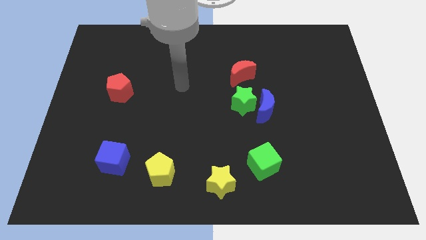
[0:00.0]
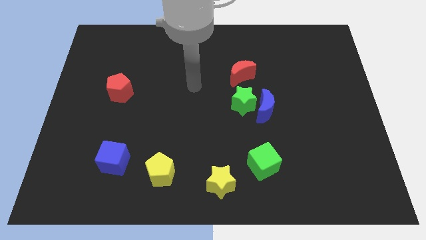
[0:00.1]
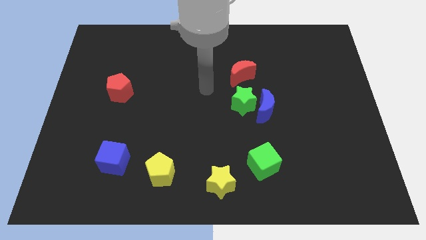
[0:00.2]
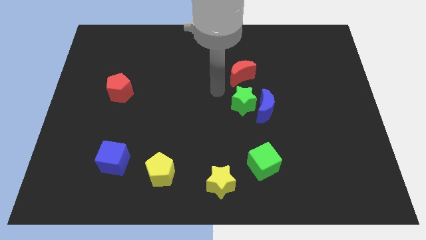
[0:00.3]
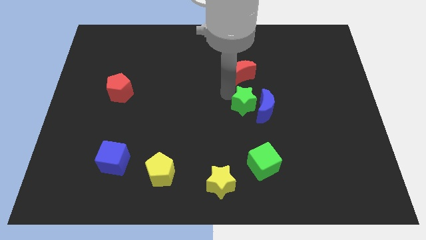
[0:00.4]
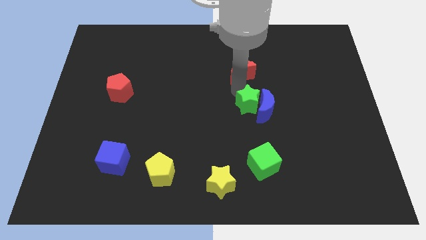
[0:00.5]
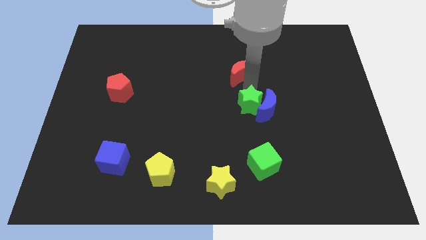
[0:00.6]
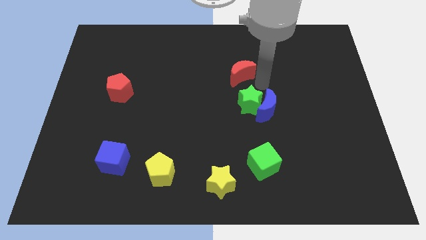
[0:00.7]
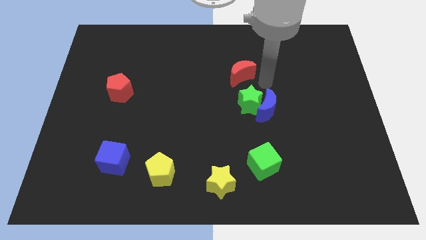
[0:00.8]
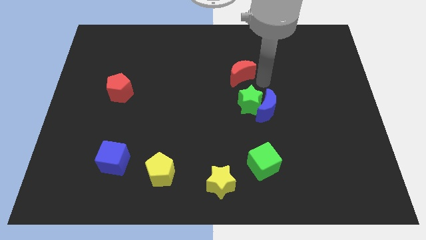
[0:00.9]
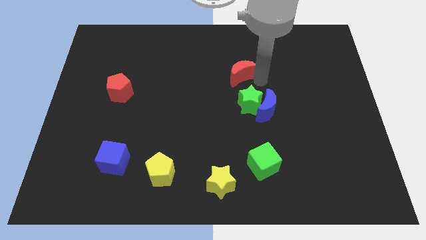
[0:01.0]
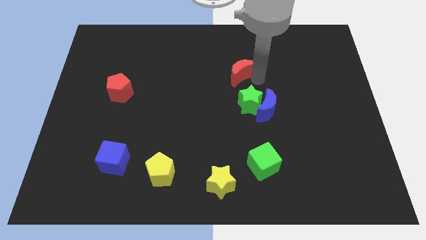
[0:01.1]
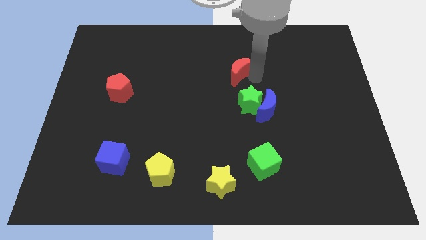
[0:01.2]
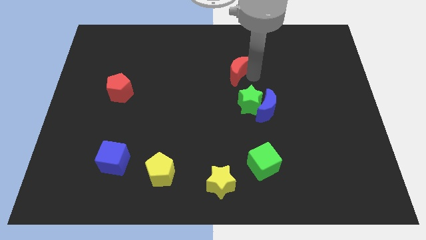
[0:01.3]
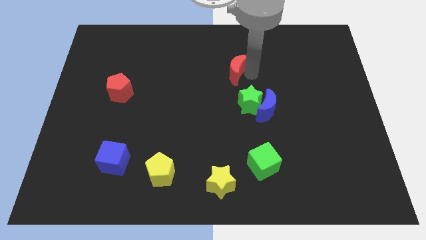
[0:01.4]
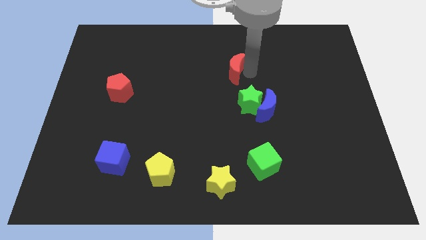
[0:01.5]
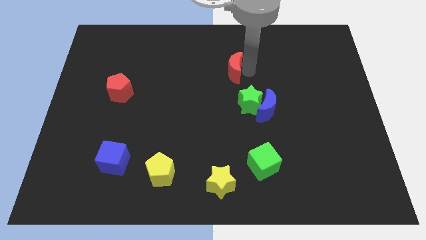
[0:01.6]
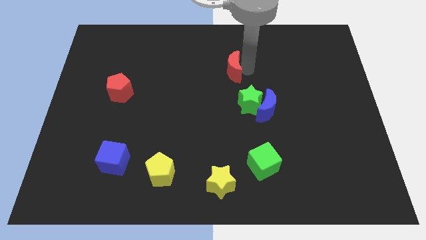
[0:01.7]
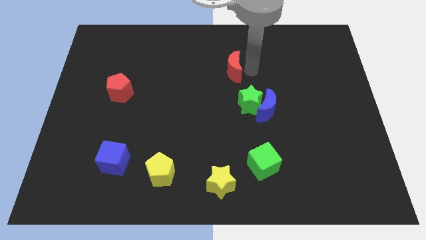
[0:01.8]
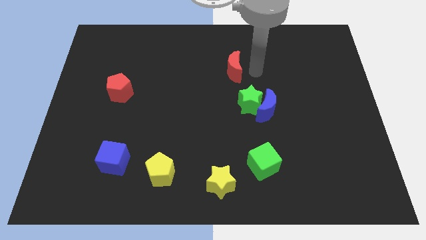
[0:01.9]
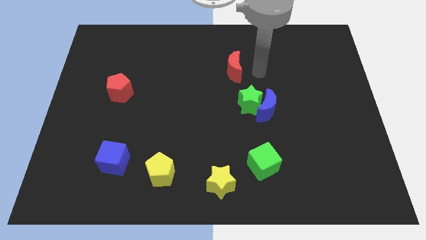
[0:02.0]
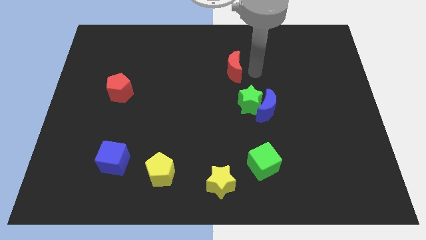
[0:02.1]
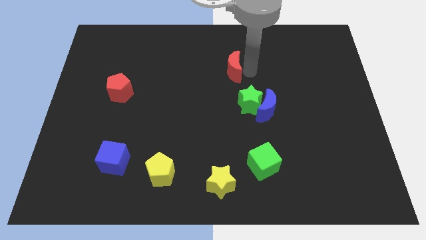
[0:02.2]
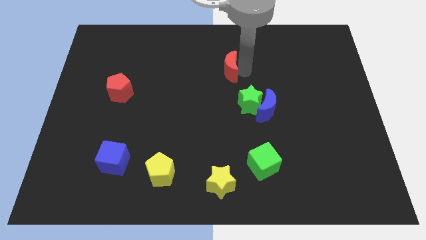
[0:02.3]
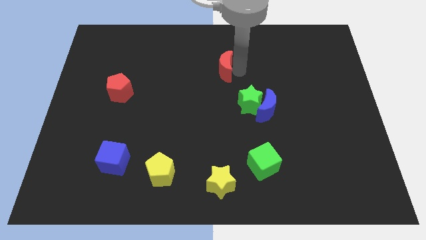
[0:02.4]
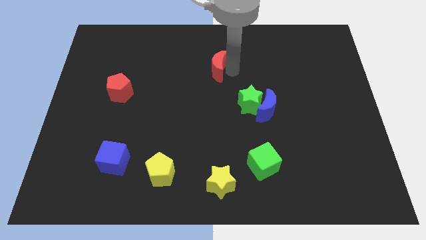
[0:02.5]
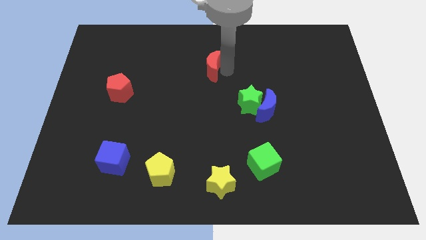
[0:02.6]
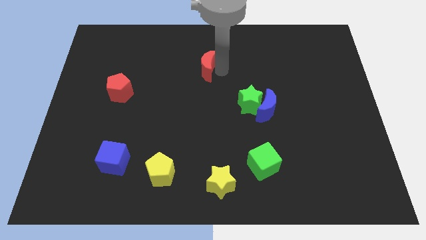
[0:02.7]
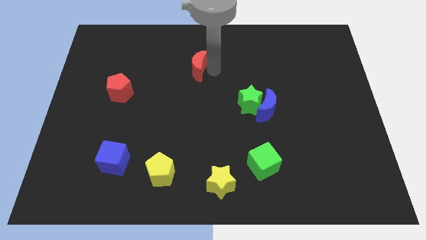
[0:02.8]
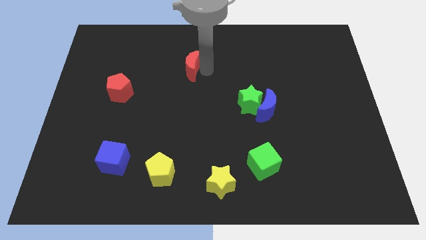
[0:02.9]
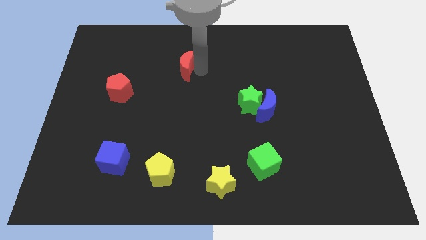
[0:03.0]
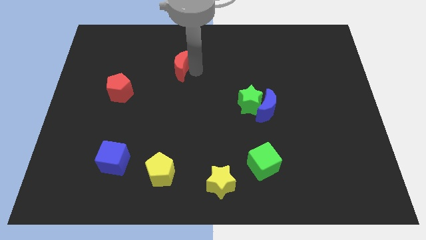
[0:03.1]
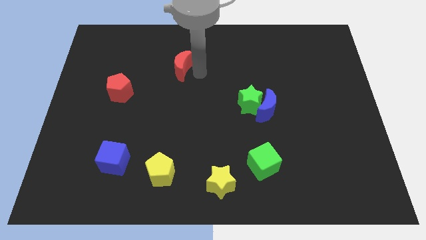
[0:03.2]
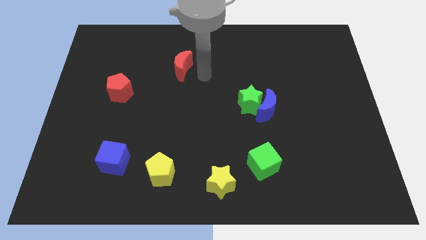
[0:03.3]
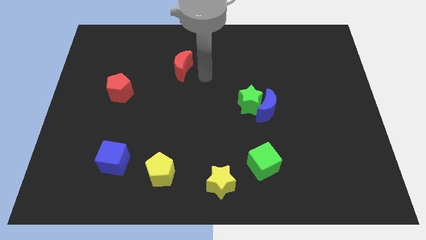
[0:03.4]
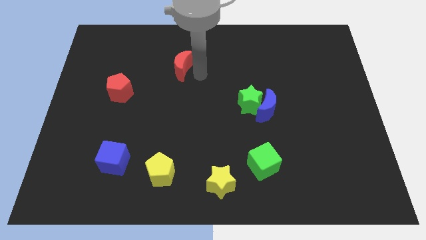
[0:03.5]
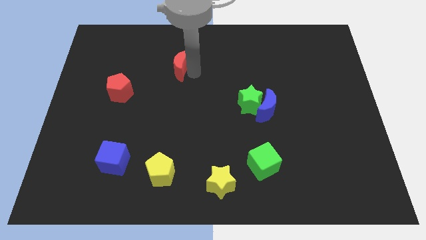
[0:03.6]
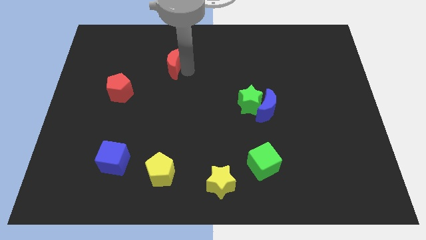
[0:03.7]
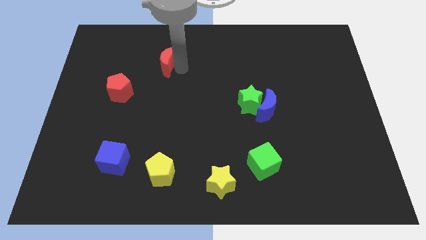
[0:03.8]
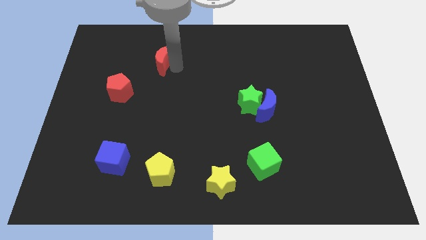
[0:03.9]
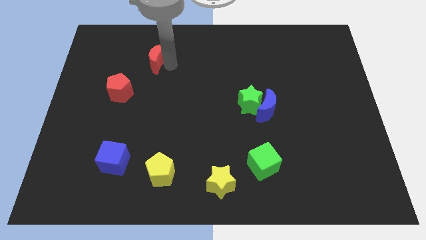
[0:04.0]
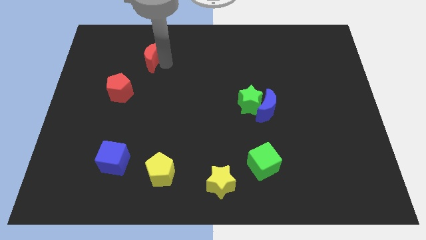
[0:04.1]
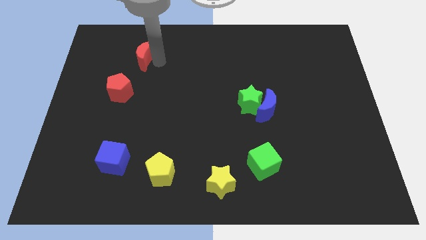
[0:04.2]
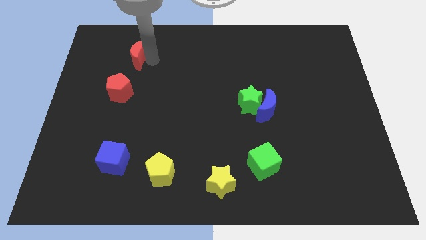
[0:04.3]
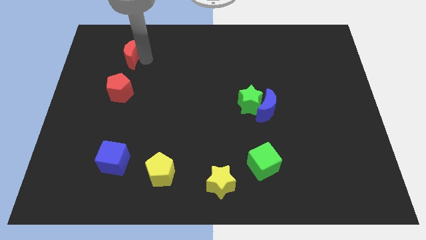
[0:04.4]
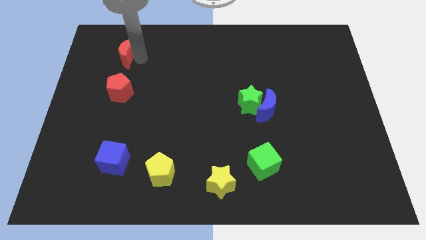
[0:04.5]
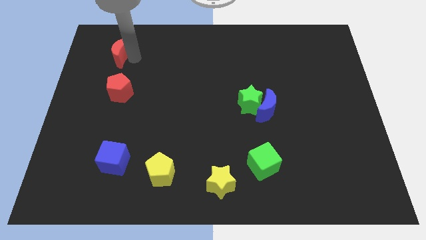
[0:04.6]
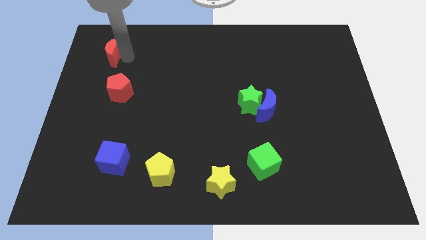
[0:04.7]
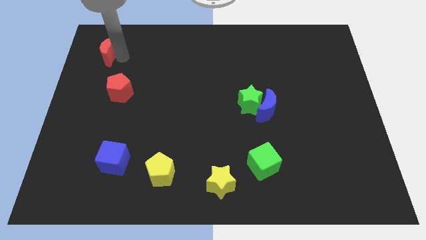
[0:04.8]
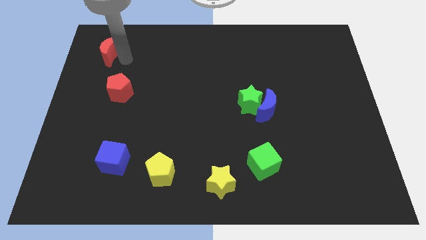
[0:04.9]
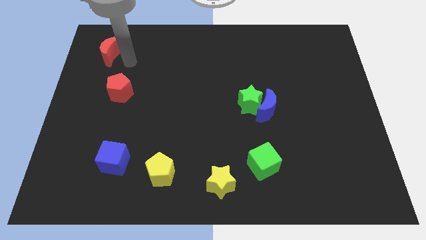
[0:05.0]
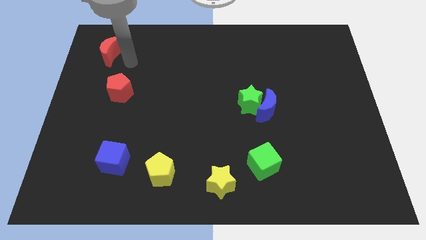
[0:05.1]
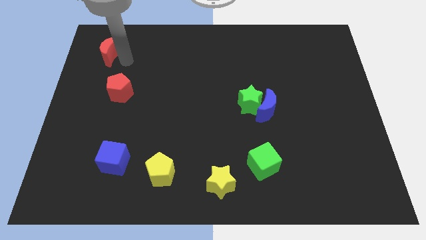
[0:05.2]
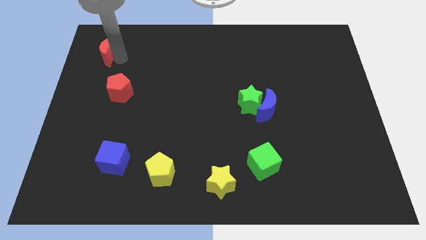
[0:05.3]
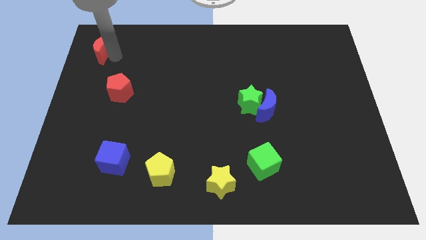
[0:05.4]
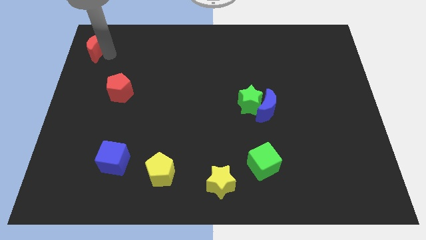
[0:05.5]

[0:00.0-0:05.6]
move the red moon to the top left corner
